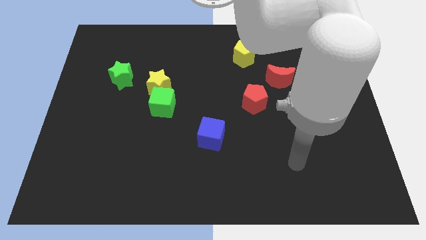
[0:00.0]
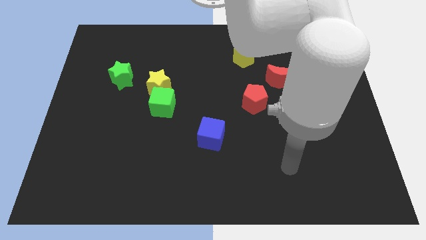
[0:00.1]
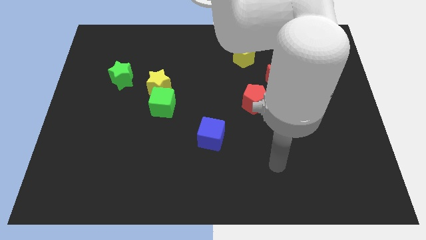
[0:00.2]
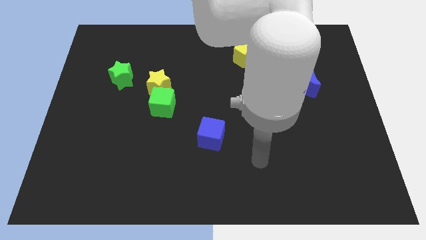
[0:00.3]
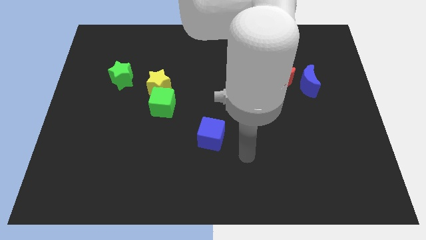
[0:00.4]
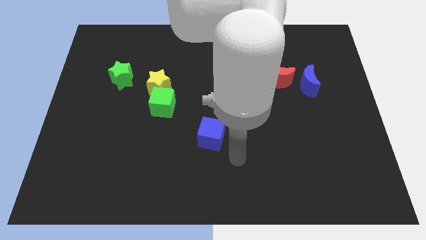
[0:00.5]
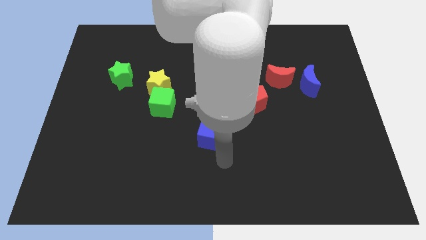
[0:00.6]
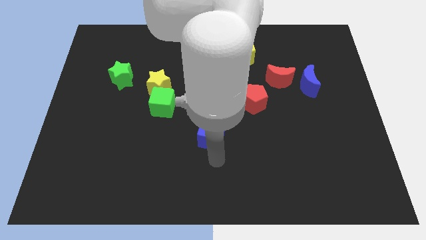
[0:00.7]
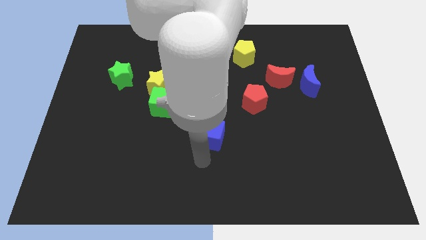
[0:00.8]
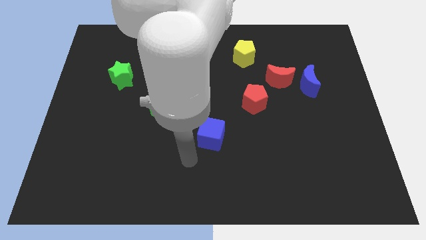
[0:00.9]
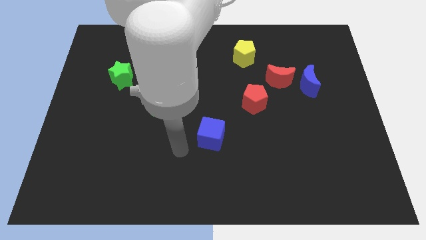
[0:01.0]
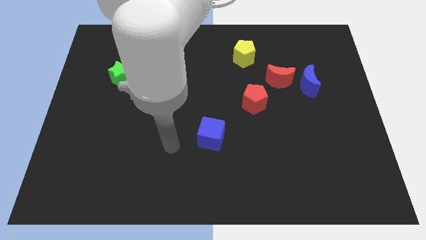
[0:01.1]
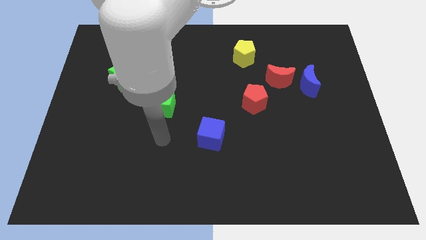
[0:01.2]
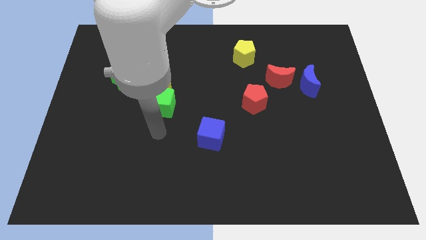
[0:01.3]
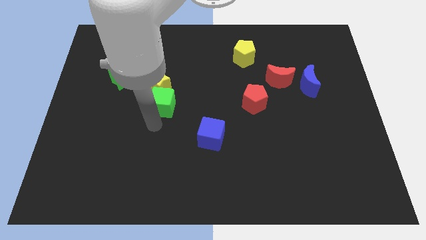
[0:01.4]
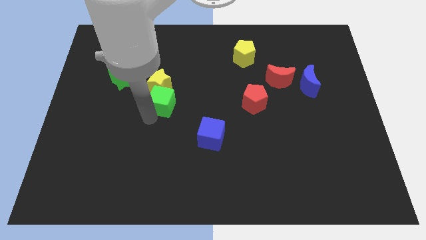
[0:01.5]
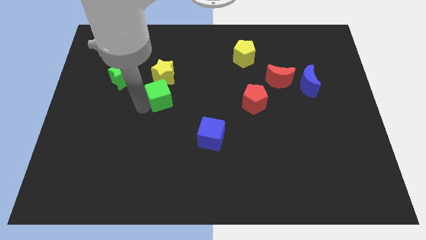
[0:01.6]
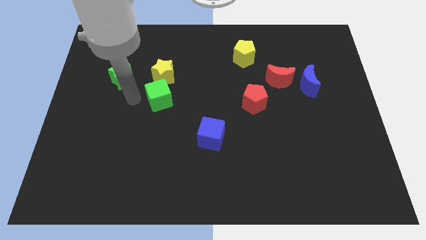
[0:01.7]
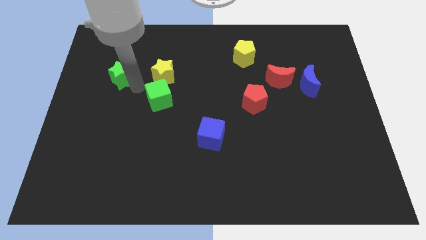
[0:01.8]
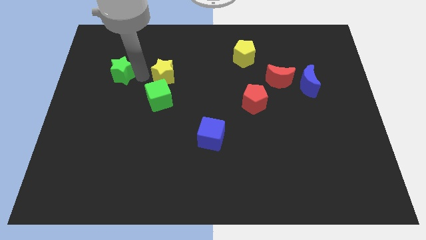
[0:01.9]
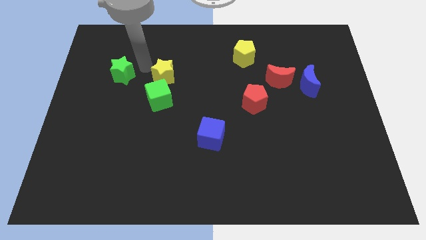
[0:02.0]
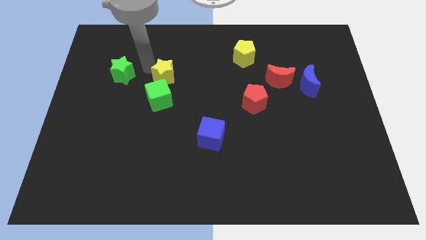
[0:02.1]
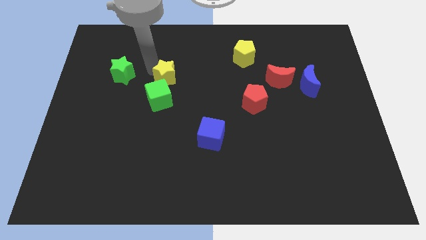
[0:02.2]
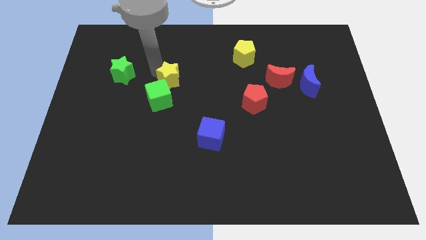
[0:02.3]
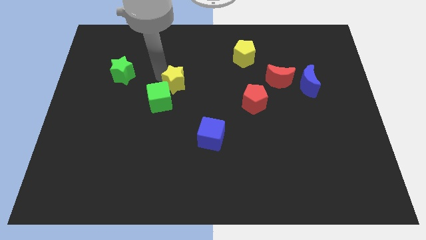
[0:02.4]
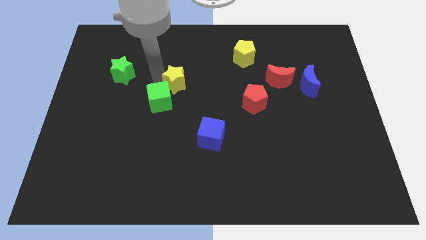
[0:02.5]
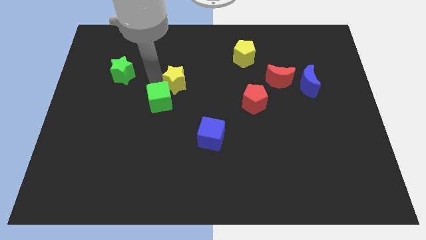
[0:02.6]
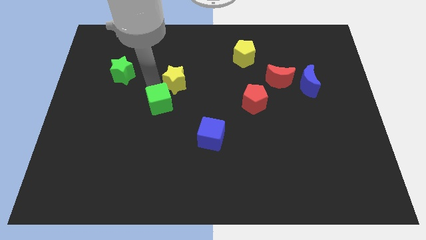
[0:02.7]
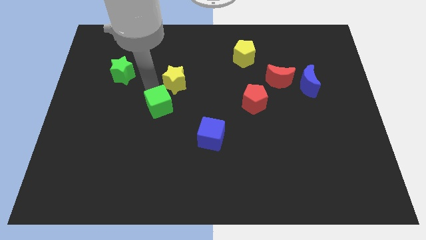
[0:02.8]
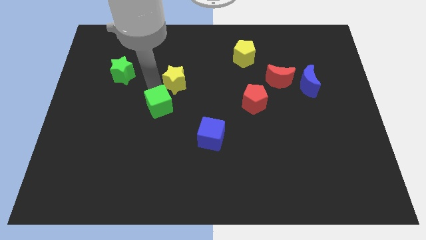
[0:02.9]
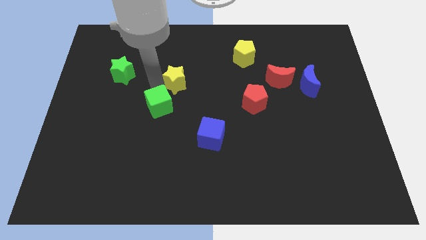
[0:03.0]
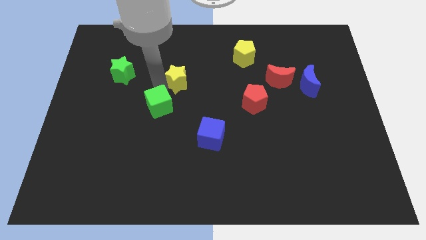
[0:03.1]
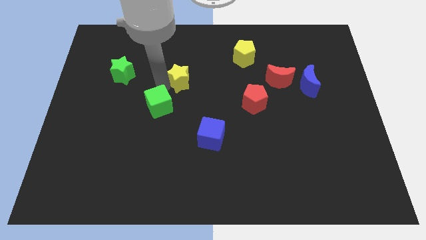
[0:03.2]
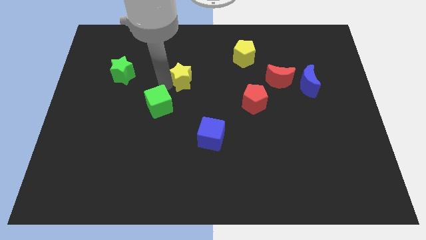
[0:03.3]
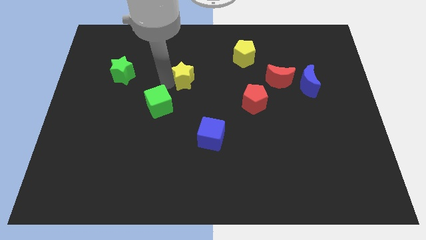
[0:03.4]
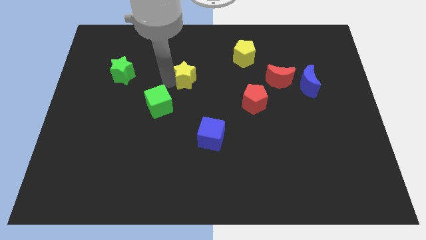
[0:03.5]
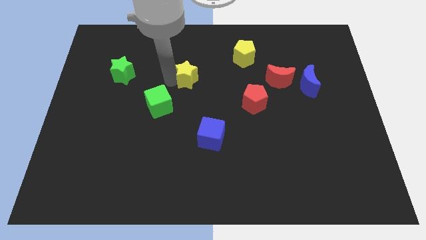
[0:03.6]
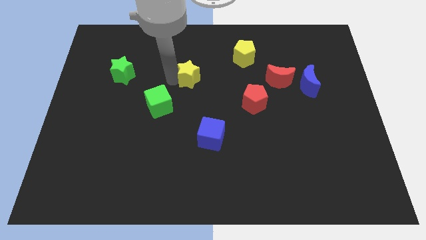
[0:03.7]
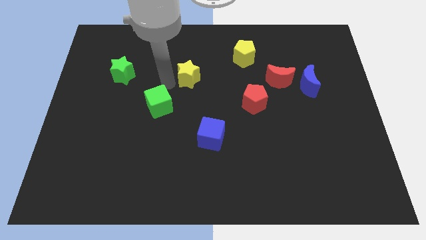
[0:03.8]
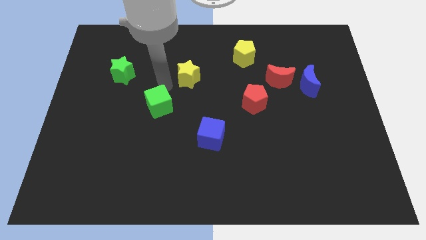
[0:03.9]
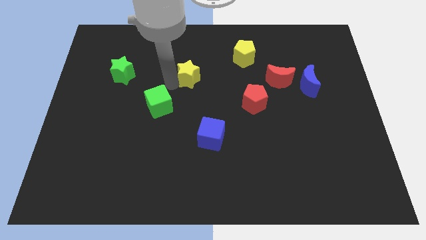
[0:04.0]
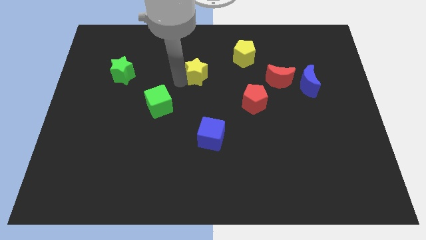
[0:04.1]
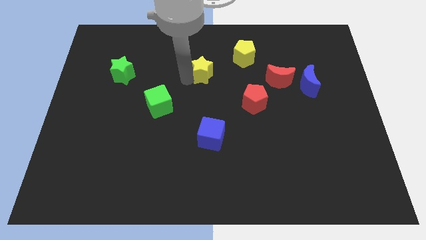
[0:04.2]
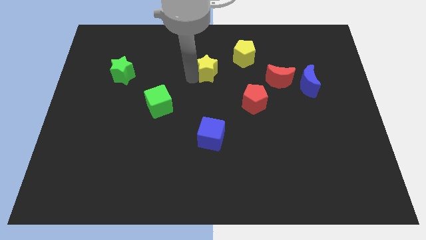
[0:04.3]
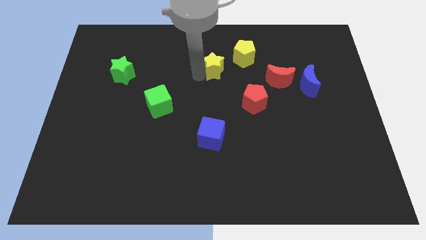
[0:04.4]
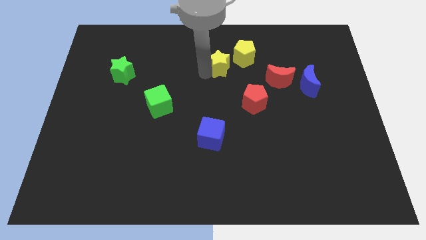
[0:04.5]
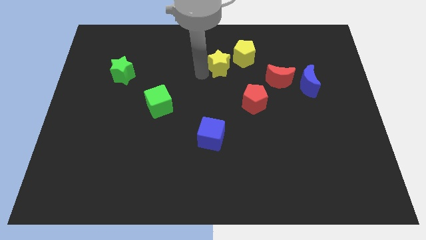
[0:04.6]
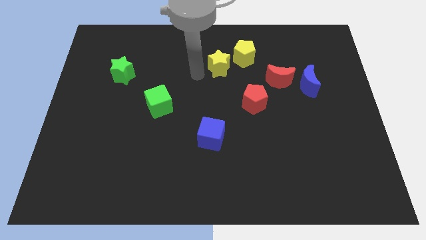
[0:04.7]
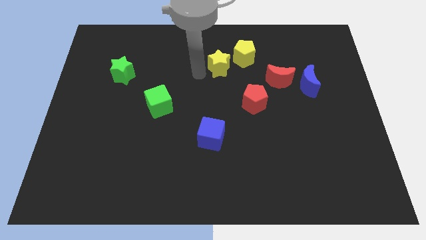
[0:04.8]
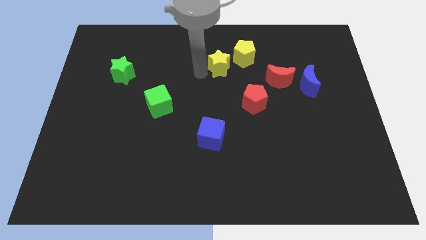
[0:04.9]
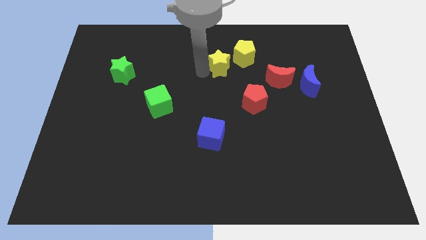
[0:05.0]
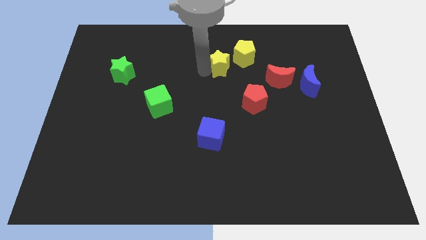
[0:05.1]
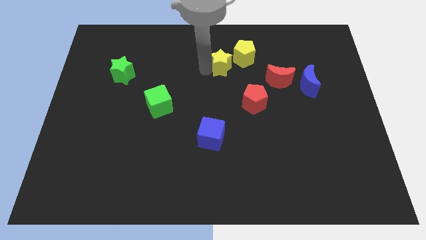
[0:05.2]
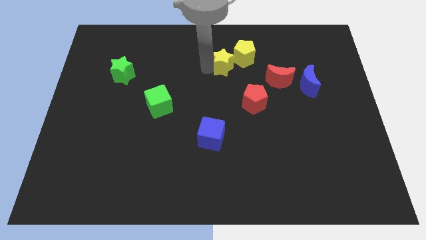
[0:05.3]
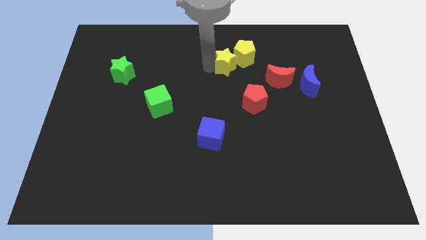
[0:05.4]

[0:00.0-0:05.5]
push the yellow star next to the yellow pentagon

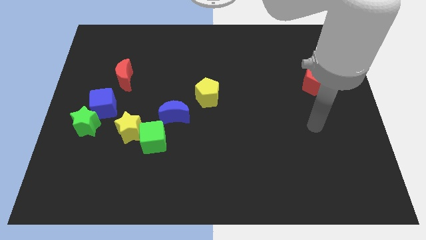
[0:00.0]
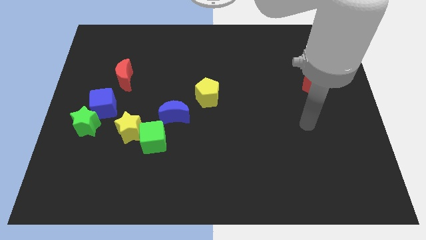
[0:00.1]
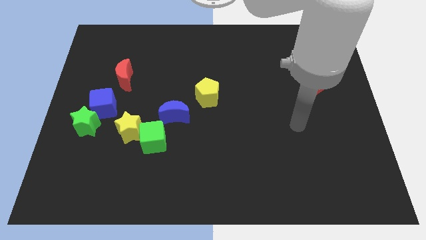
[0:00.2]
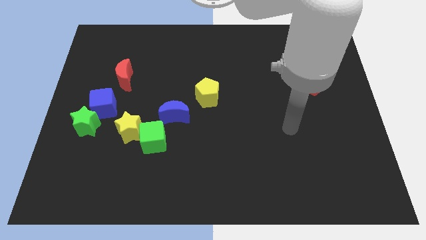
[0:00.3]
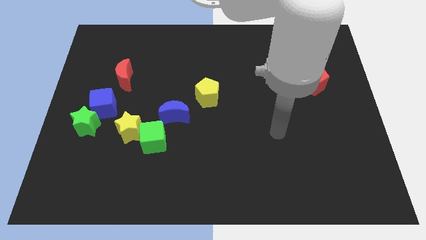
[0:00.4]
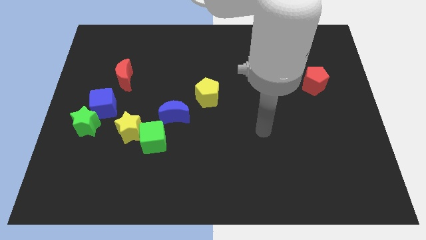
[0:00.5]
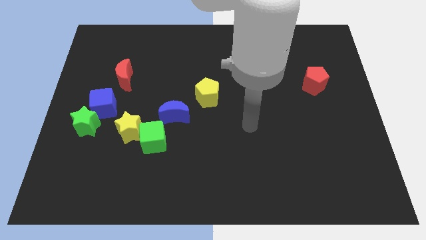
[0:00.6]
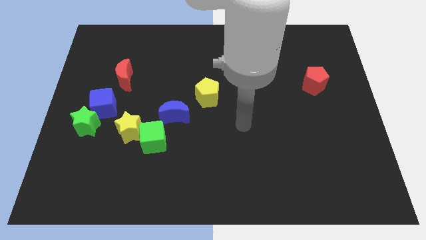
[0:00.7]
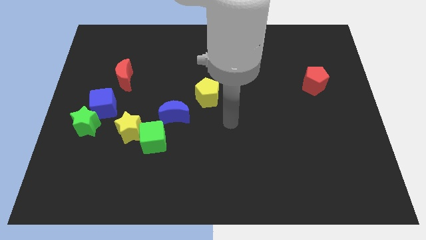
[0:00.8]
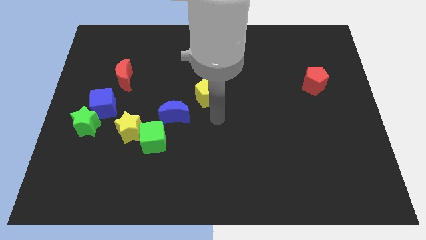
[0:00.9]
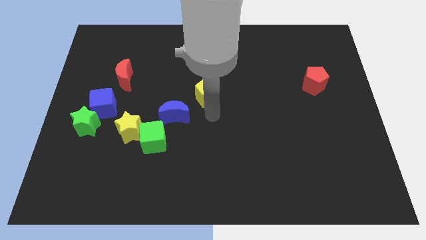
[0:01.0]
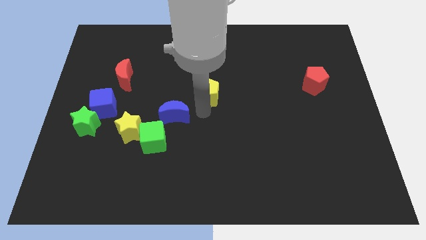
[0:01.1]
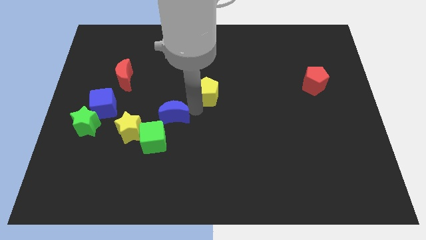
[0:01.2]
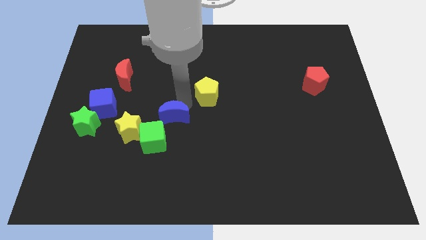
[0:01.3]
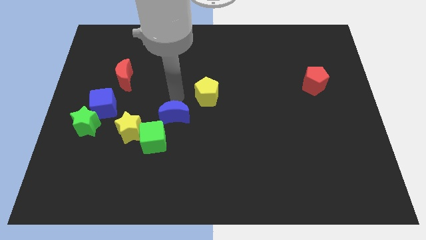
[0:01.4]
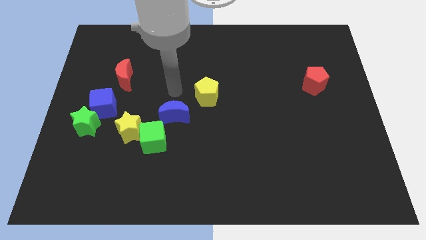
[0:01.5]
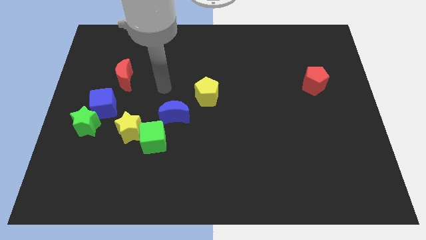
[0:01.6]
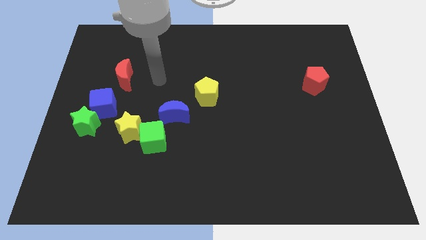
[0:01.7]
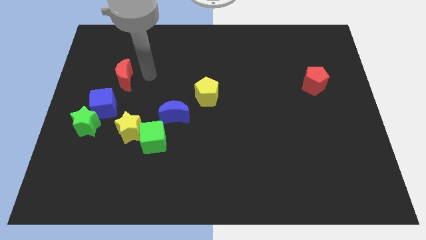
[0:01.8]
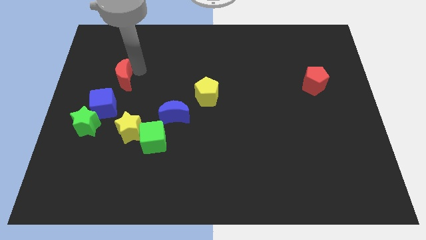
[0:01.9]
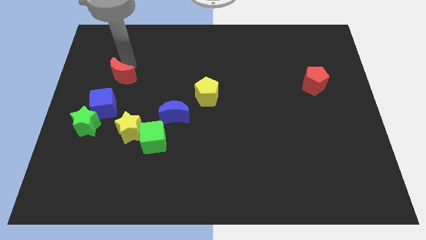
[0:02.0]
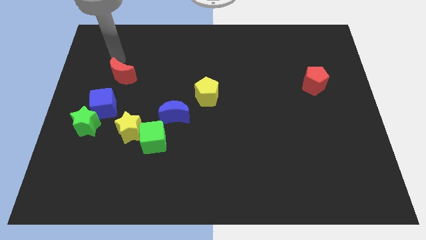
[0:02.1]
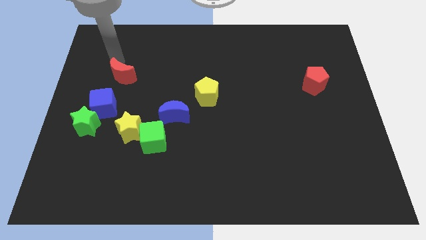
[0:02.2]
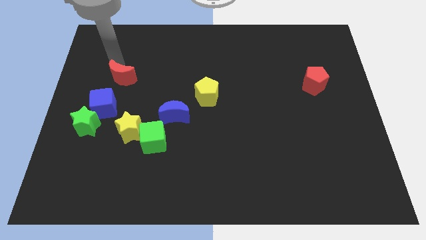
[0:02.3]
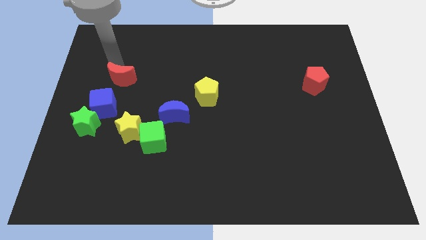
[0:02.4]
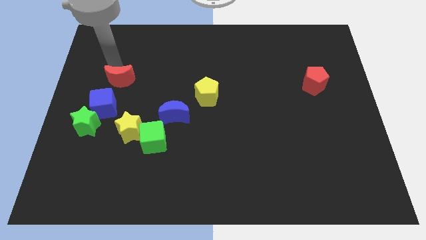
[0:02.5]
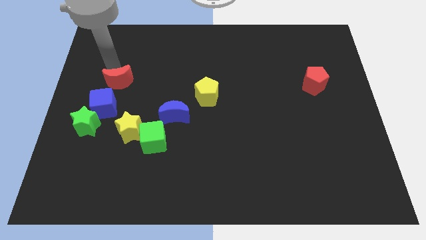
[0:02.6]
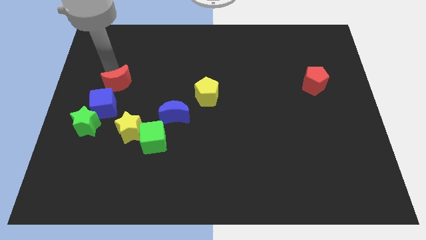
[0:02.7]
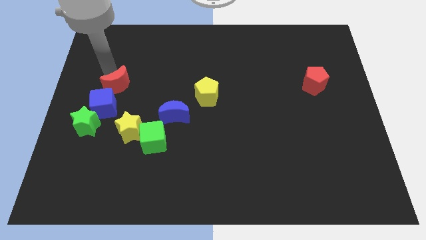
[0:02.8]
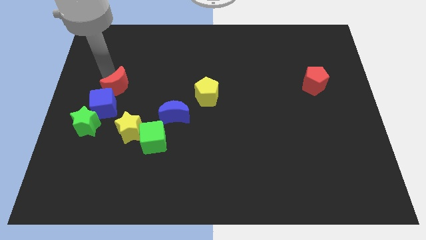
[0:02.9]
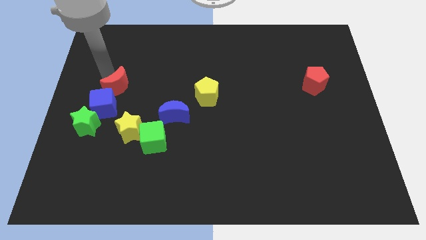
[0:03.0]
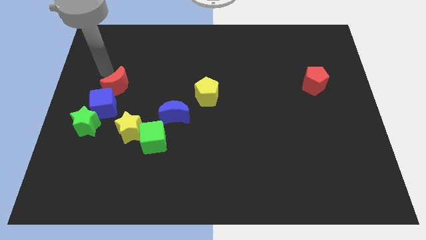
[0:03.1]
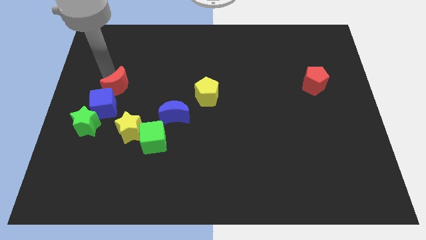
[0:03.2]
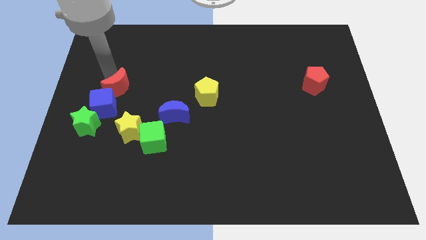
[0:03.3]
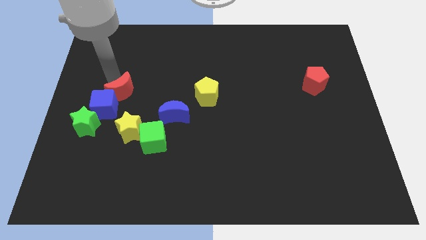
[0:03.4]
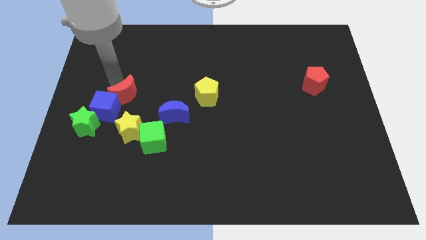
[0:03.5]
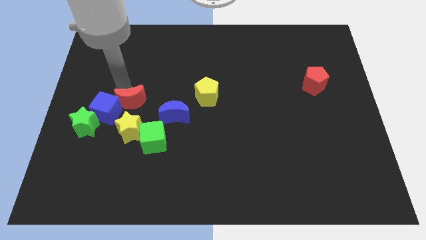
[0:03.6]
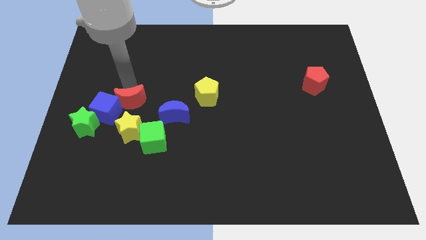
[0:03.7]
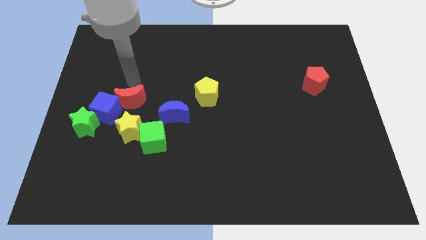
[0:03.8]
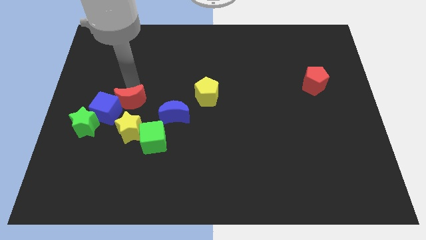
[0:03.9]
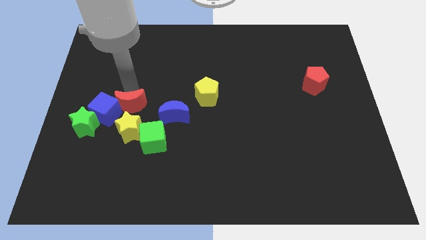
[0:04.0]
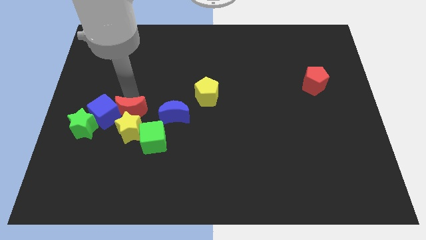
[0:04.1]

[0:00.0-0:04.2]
slide the red moon towards the yellow star
